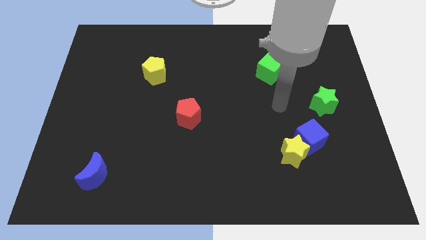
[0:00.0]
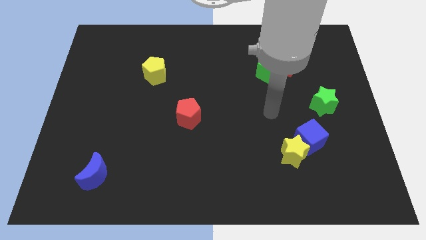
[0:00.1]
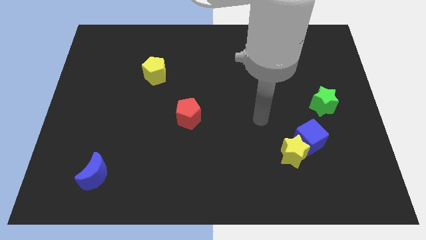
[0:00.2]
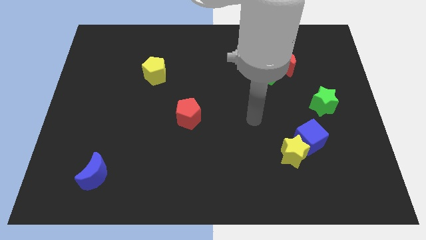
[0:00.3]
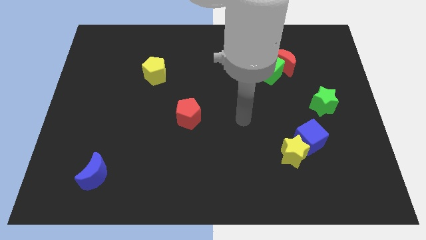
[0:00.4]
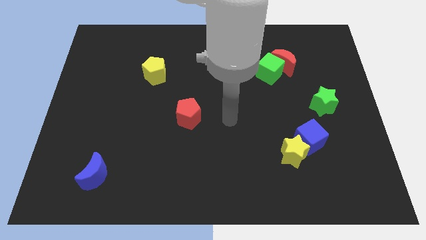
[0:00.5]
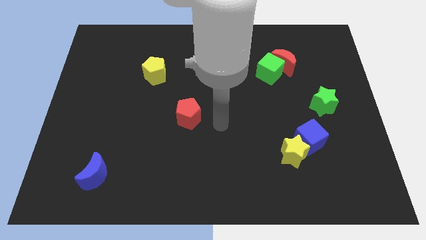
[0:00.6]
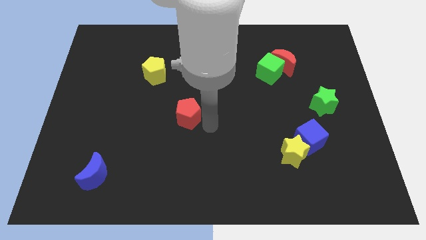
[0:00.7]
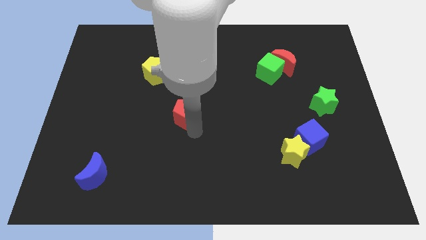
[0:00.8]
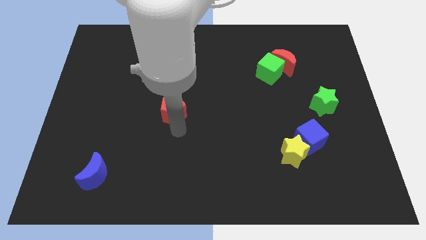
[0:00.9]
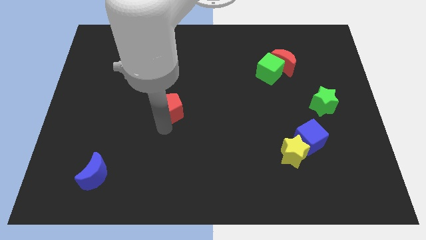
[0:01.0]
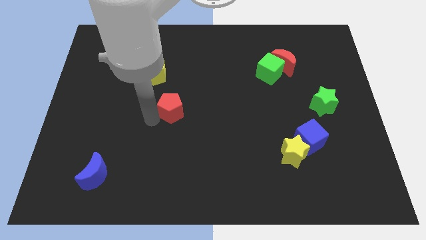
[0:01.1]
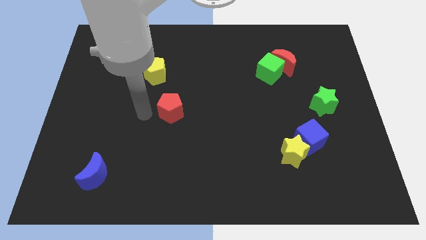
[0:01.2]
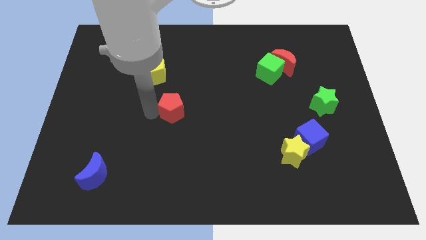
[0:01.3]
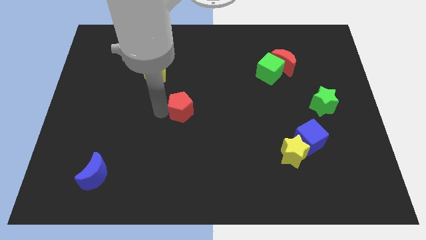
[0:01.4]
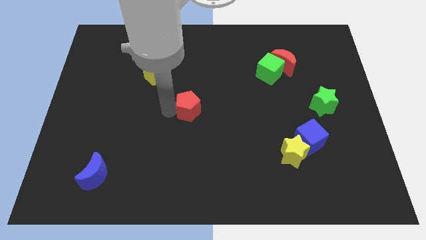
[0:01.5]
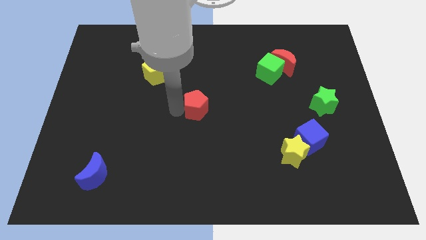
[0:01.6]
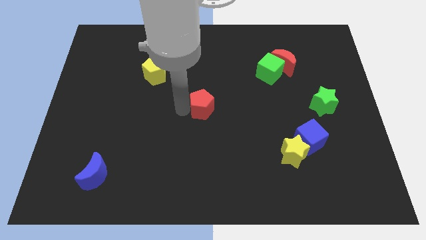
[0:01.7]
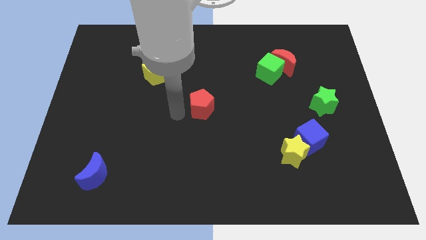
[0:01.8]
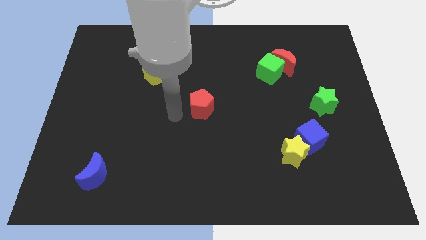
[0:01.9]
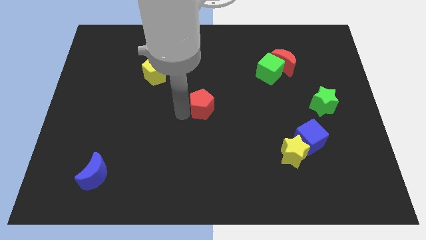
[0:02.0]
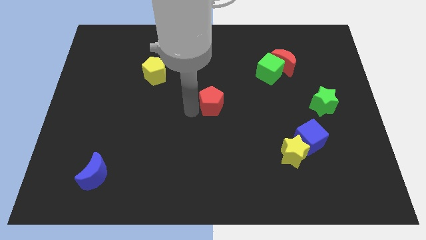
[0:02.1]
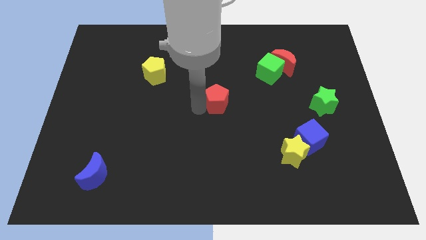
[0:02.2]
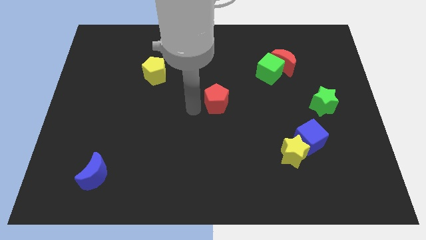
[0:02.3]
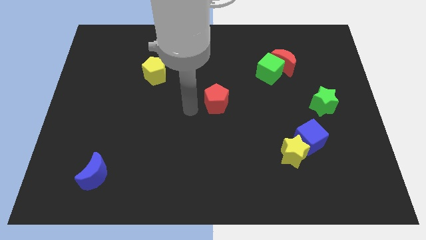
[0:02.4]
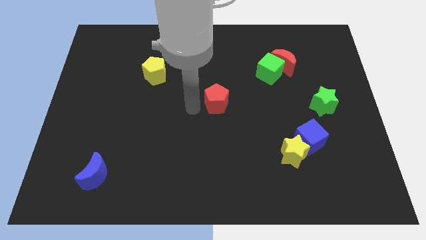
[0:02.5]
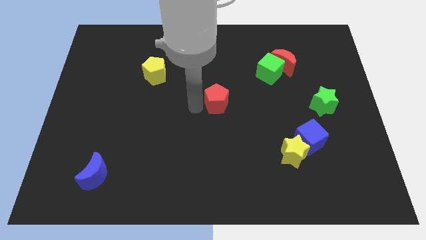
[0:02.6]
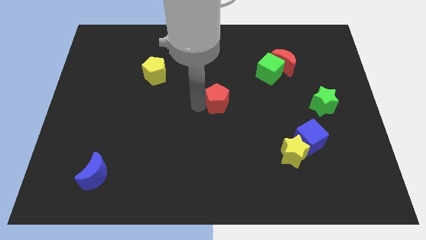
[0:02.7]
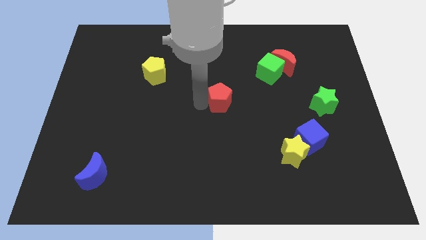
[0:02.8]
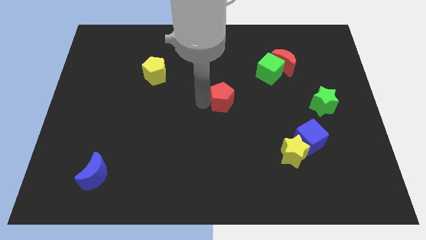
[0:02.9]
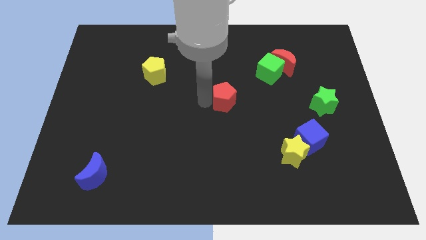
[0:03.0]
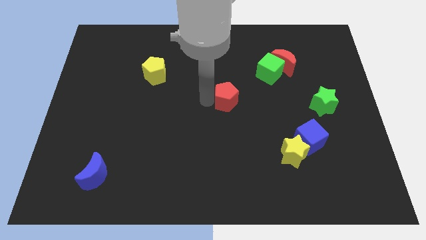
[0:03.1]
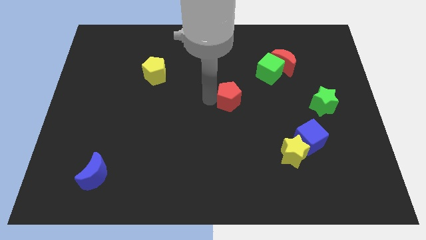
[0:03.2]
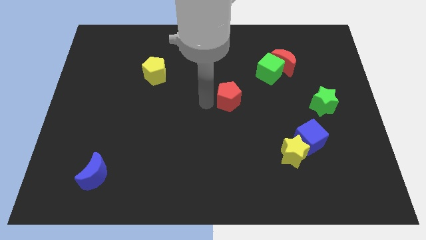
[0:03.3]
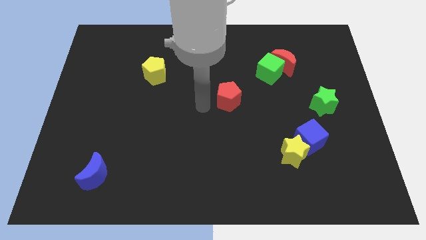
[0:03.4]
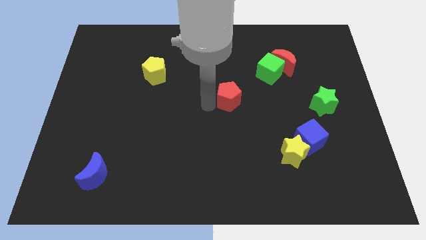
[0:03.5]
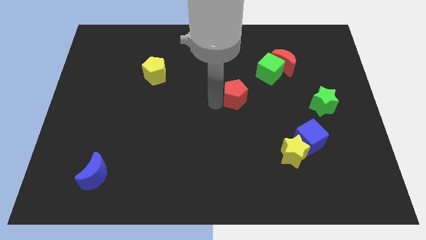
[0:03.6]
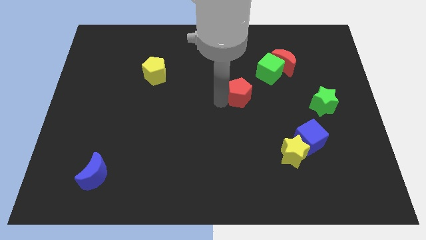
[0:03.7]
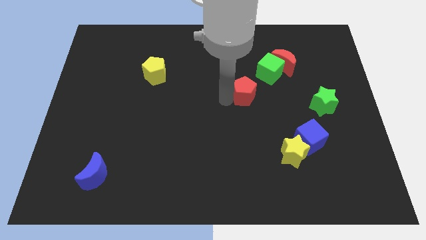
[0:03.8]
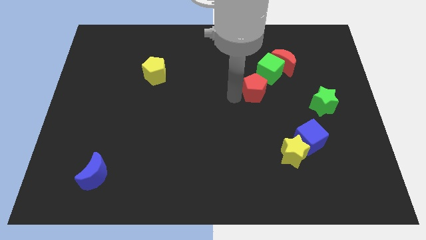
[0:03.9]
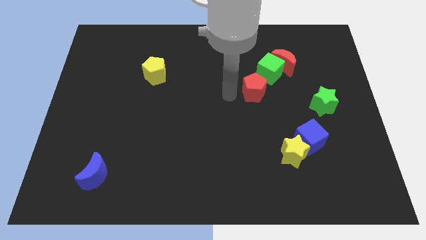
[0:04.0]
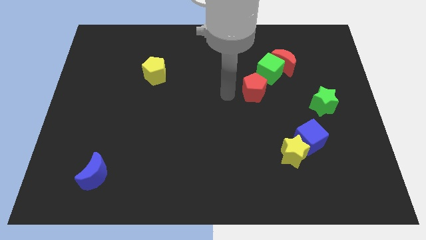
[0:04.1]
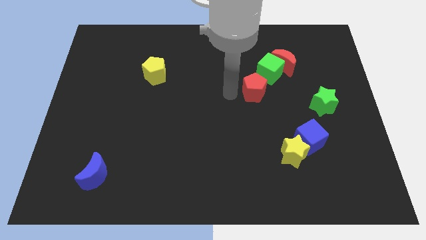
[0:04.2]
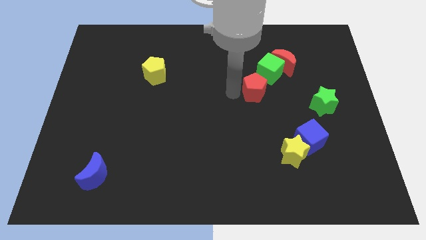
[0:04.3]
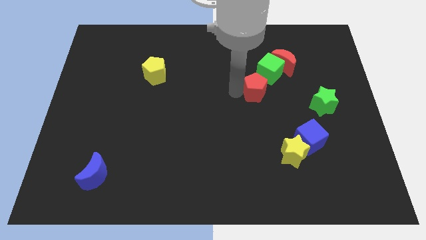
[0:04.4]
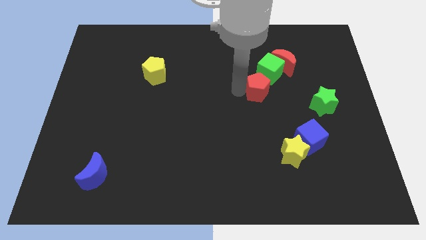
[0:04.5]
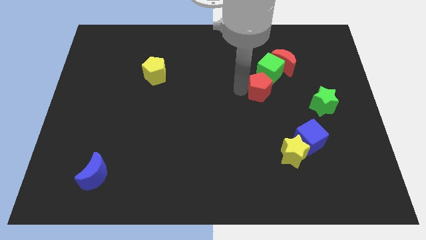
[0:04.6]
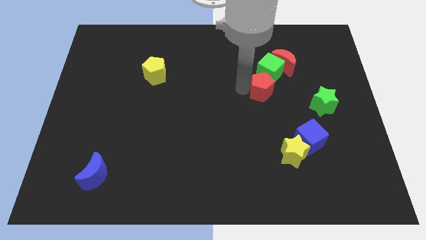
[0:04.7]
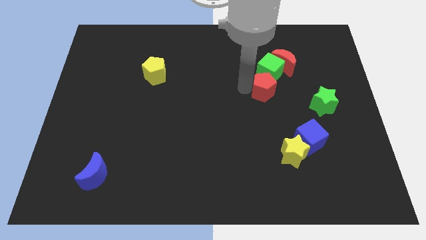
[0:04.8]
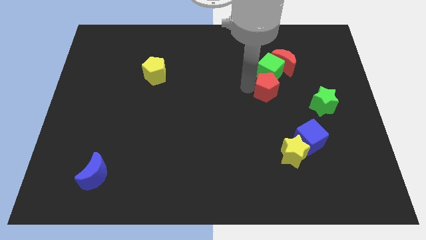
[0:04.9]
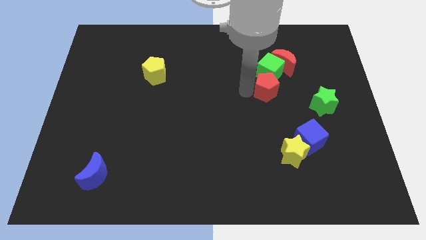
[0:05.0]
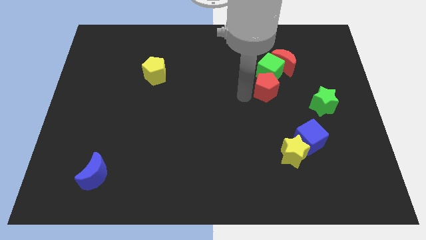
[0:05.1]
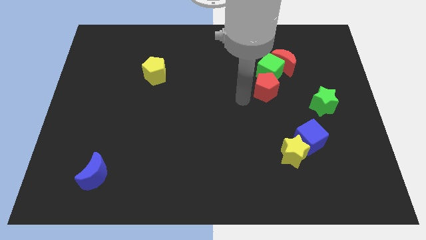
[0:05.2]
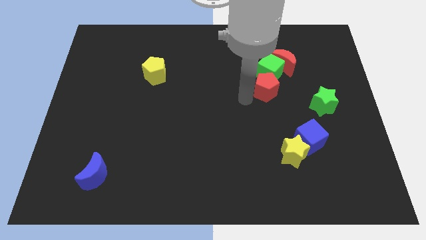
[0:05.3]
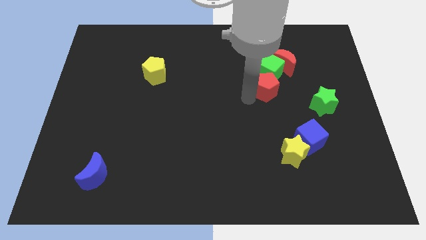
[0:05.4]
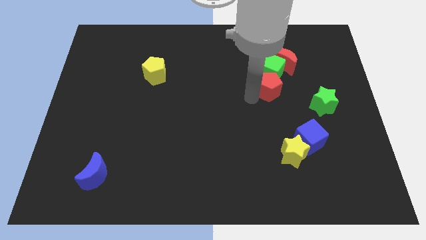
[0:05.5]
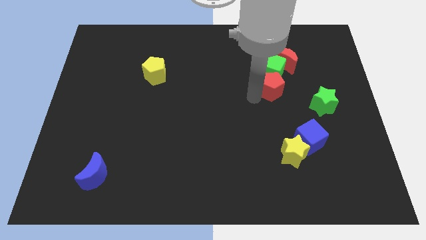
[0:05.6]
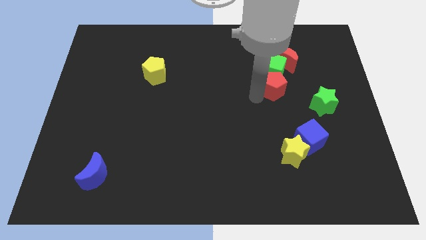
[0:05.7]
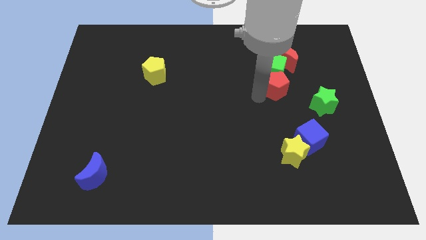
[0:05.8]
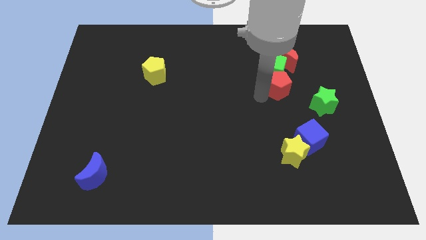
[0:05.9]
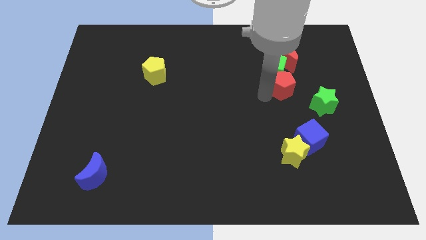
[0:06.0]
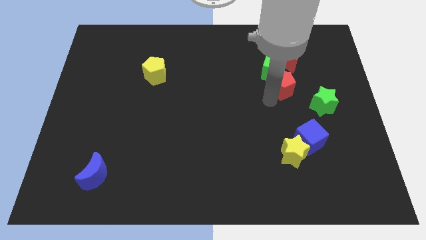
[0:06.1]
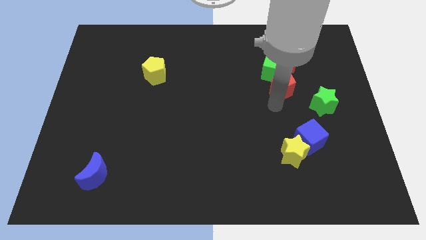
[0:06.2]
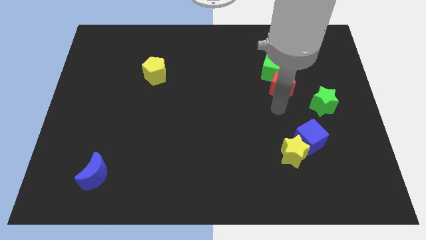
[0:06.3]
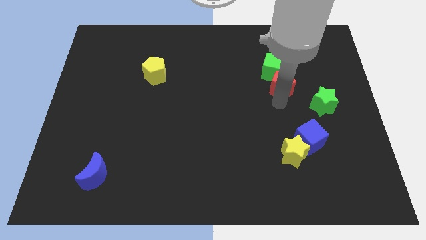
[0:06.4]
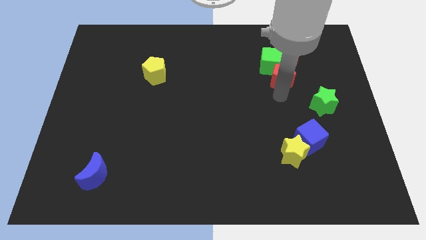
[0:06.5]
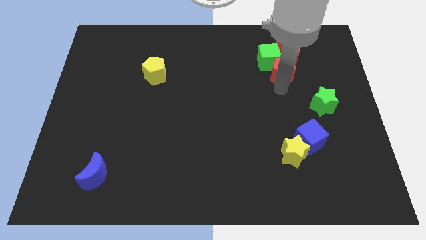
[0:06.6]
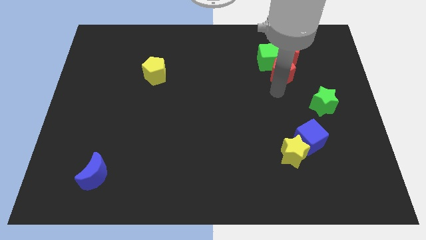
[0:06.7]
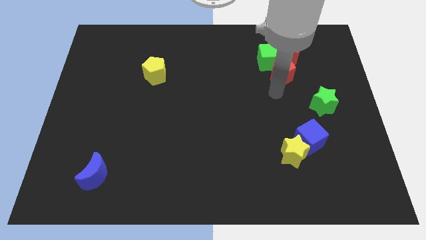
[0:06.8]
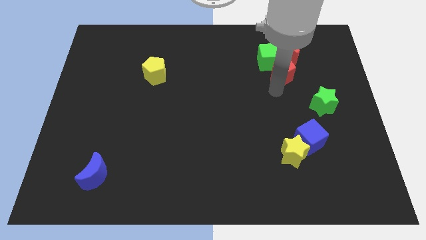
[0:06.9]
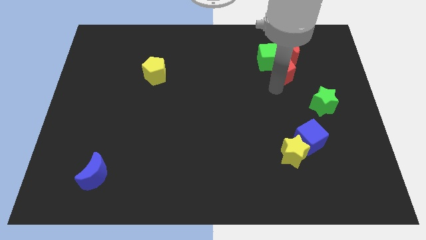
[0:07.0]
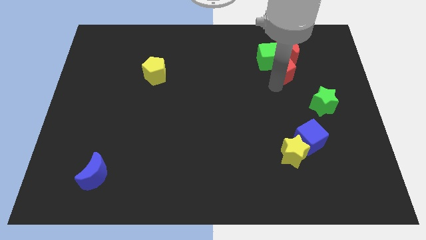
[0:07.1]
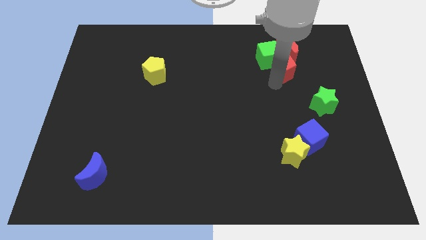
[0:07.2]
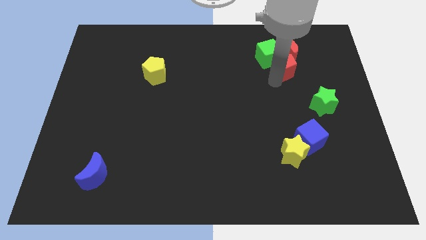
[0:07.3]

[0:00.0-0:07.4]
slide the red pentagon to the red moon
